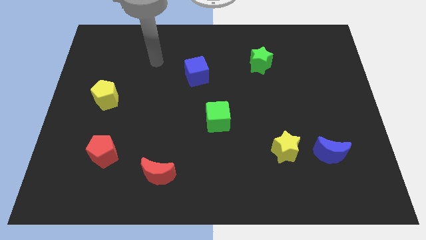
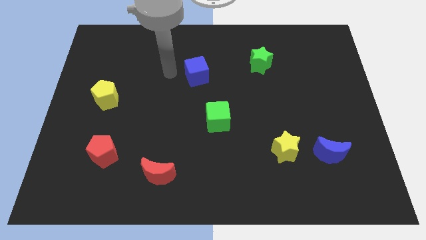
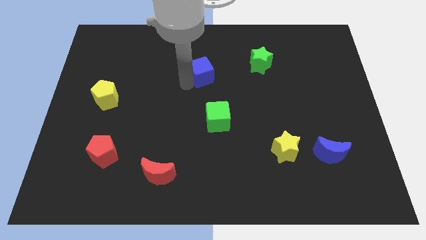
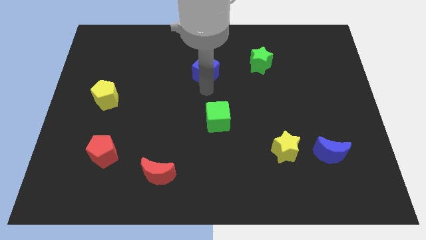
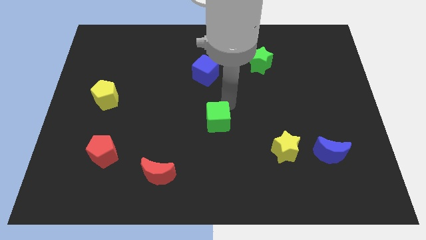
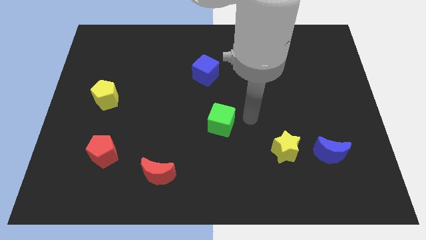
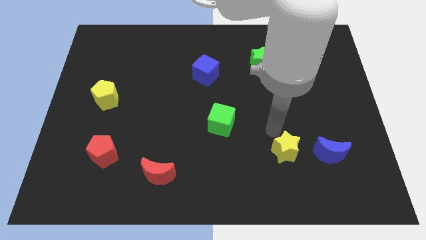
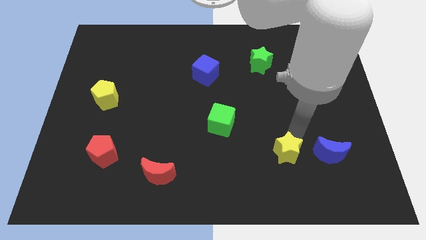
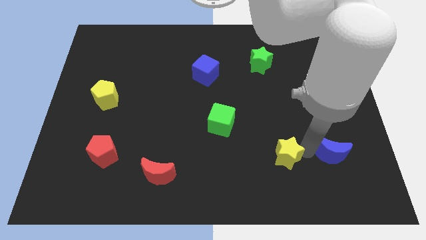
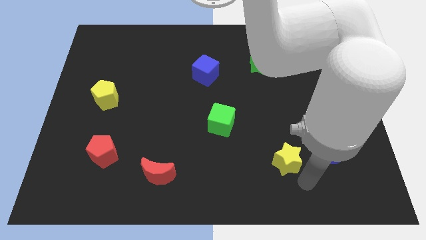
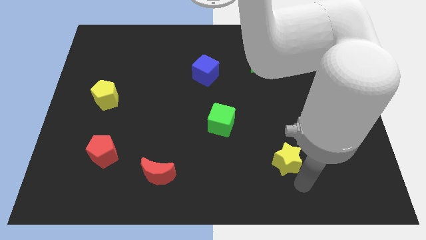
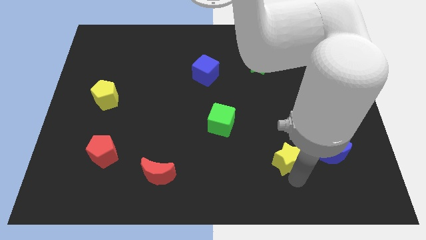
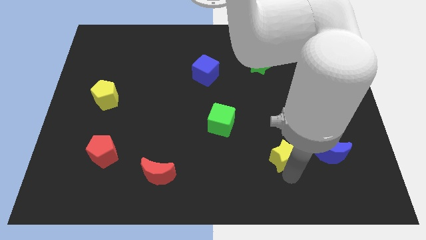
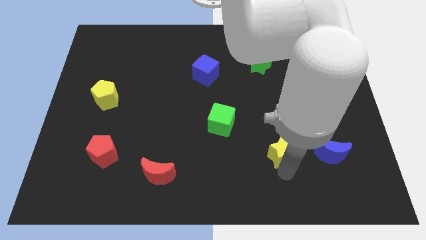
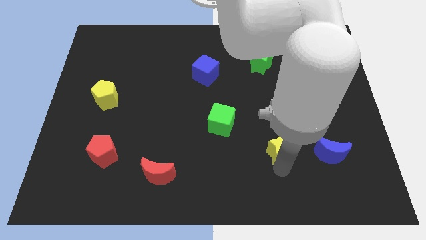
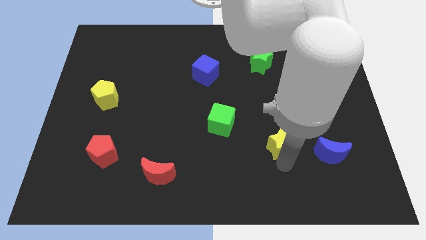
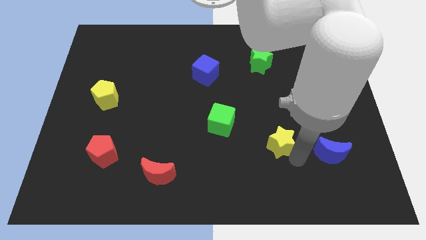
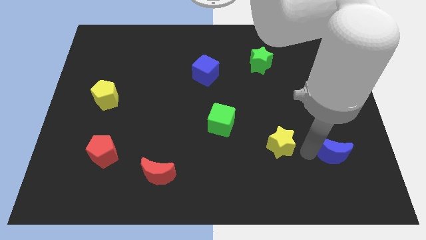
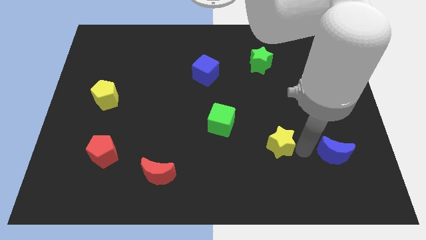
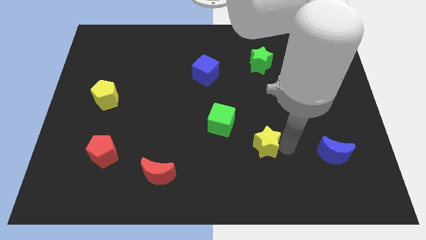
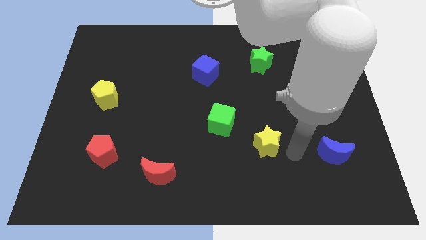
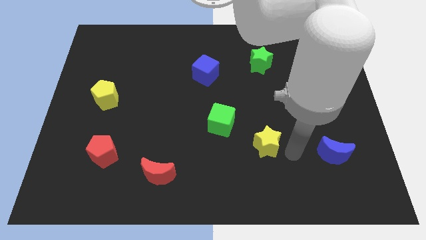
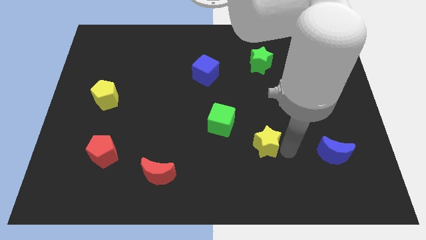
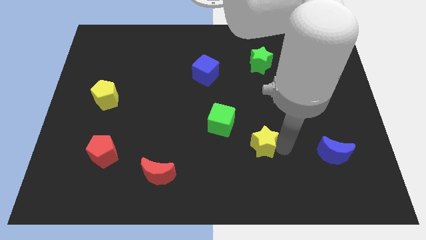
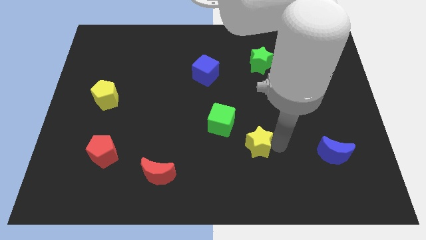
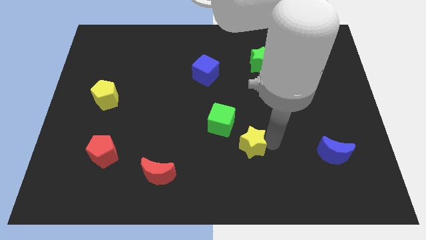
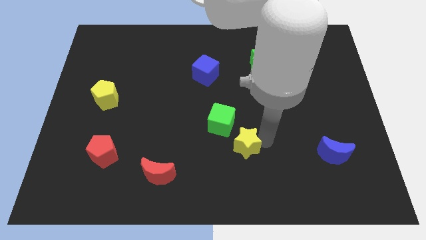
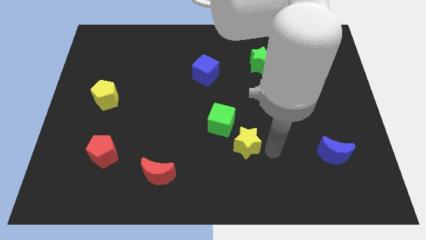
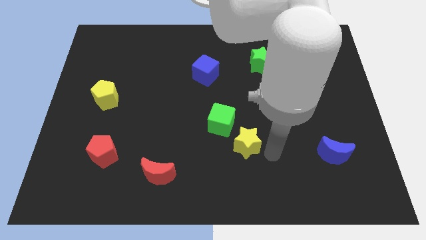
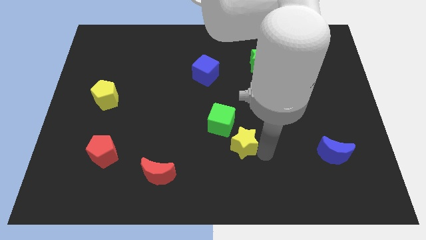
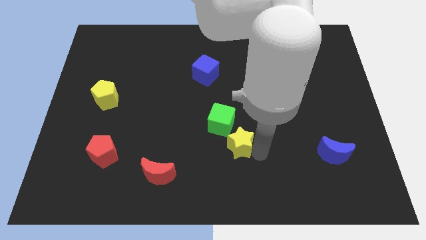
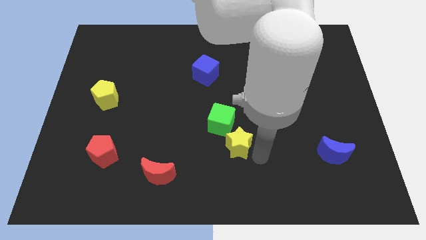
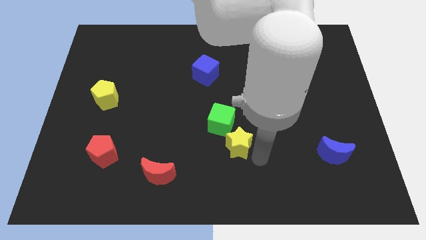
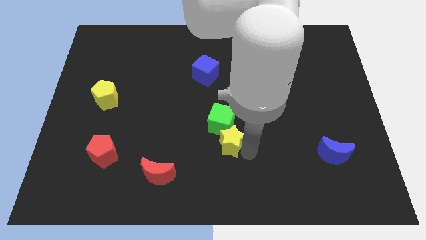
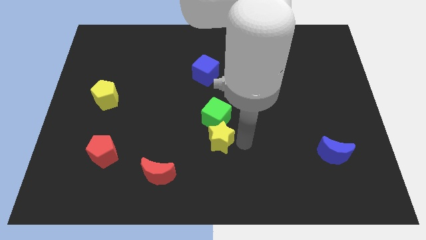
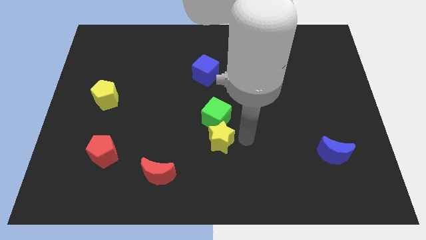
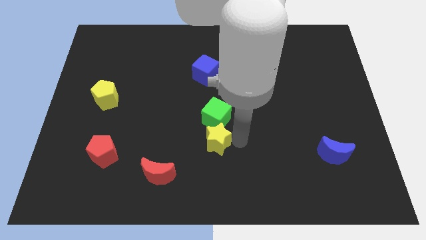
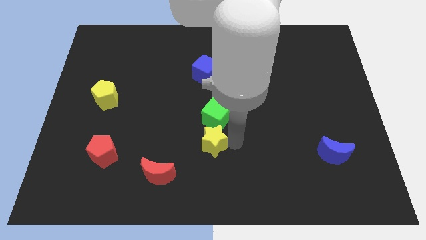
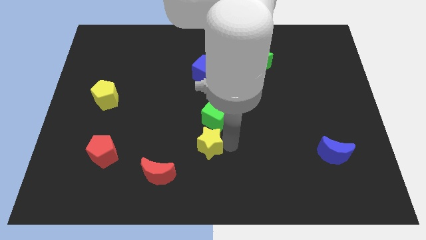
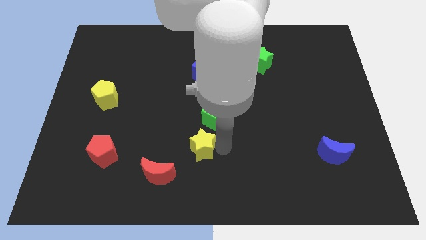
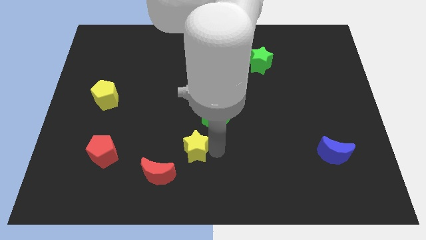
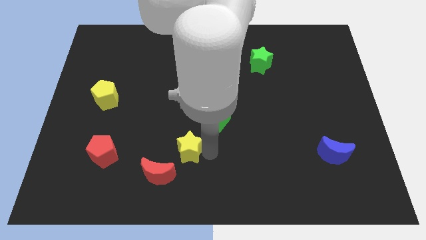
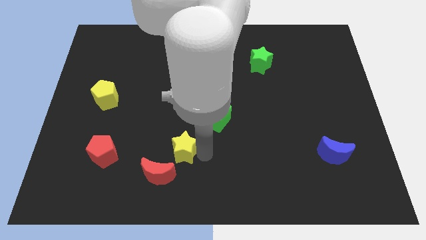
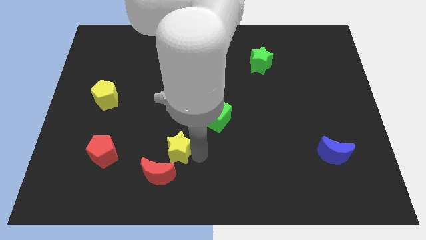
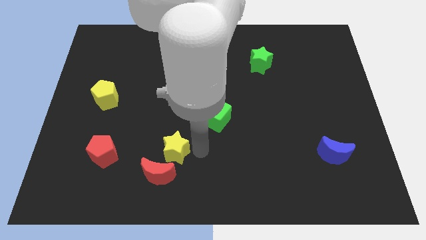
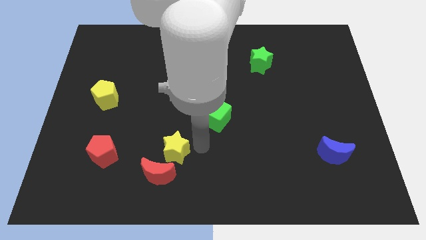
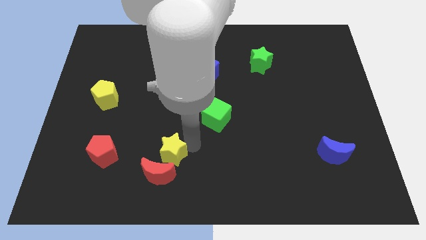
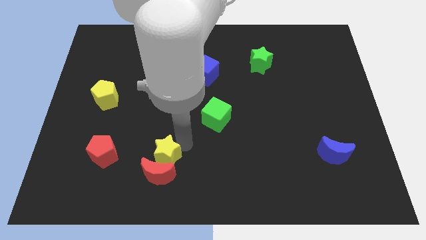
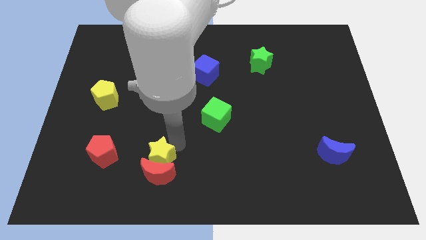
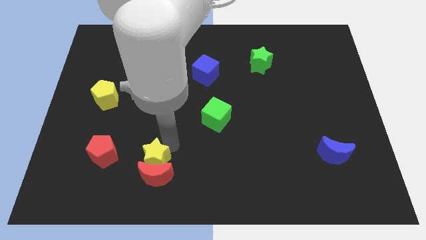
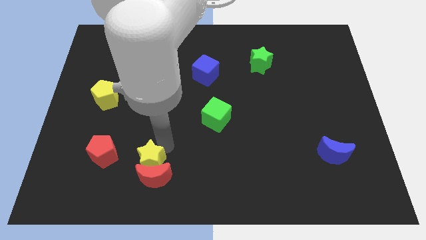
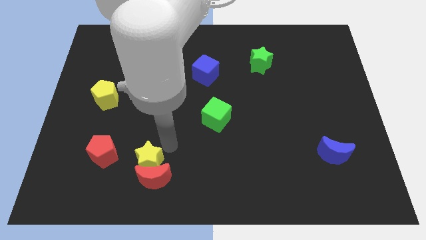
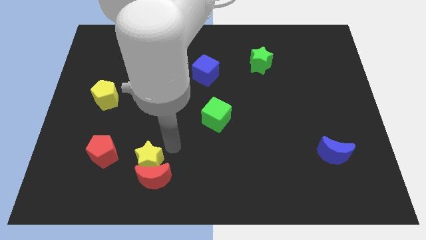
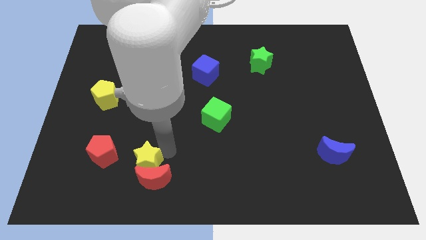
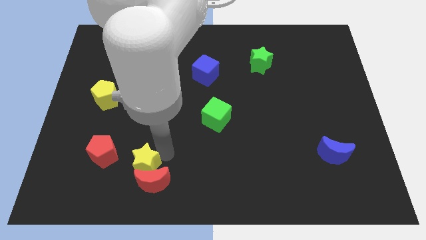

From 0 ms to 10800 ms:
move the yellow star to the bottom right side of the red pentagon

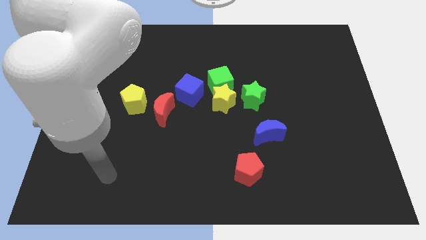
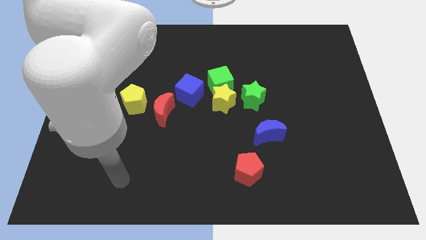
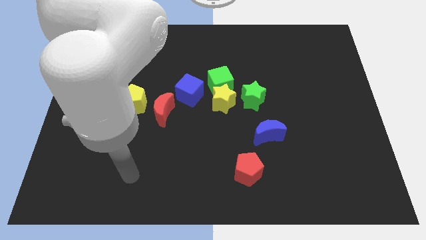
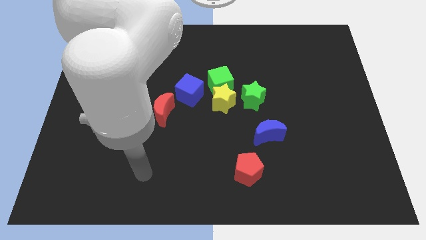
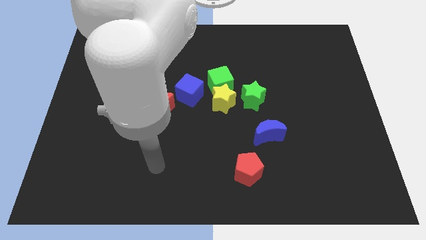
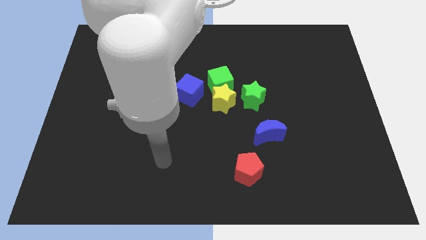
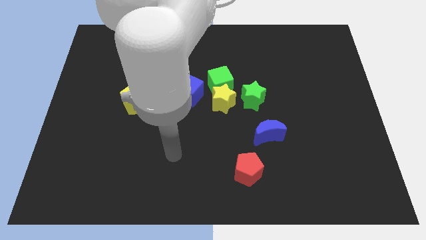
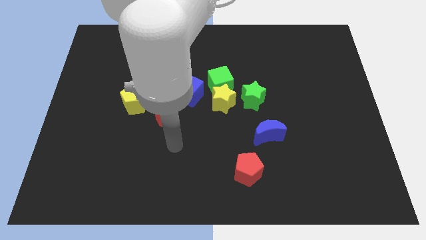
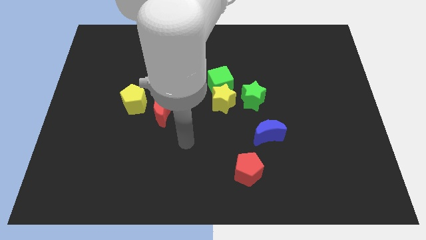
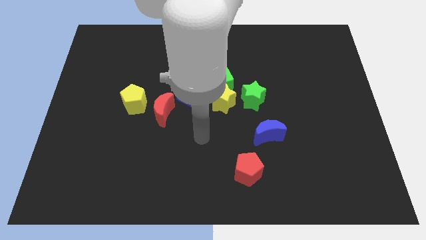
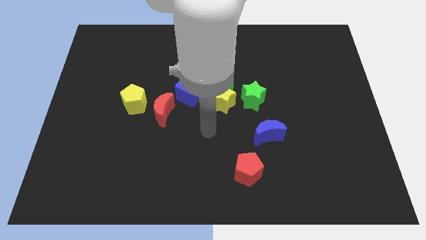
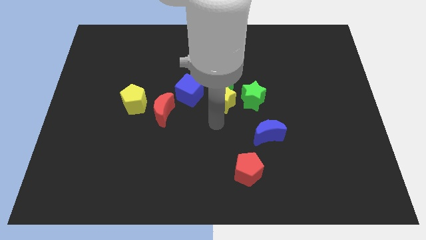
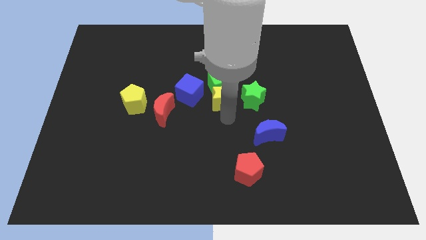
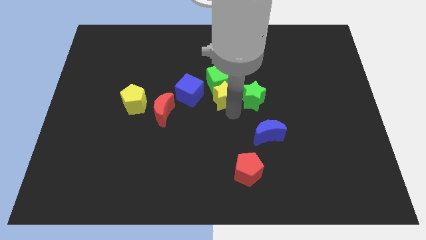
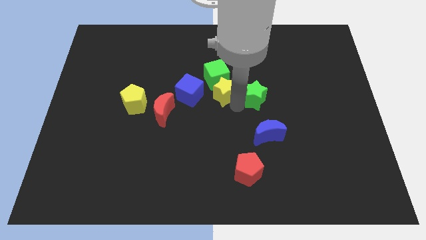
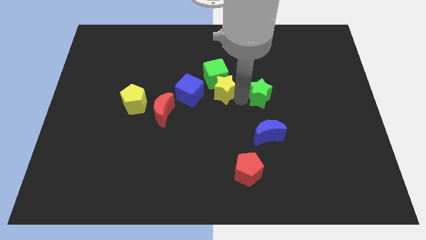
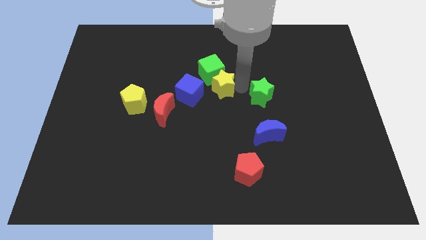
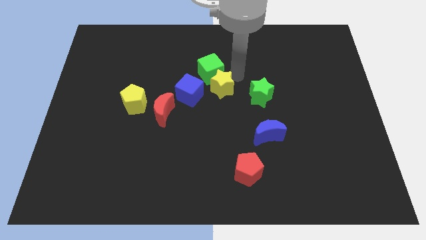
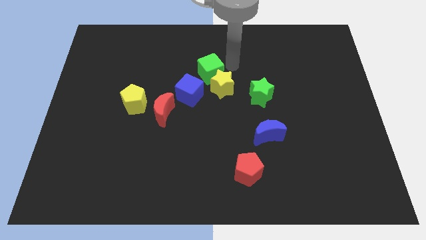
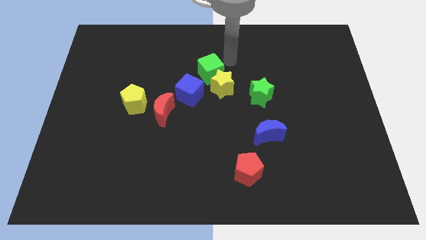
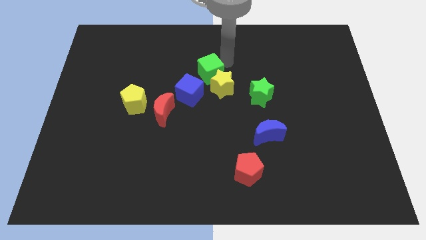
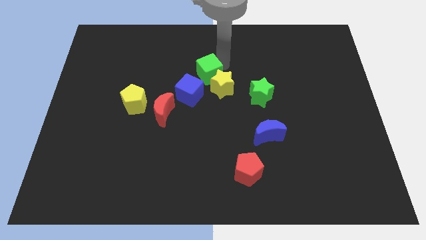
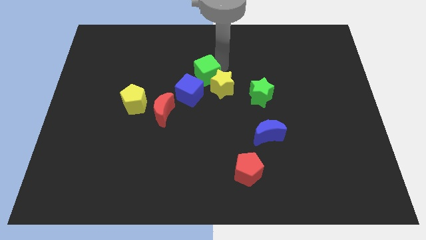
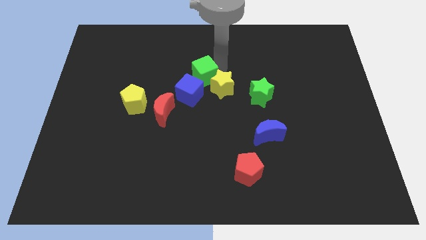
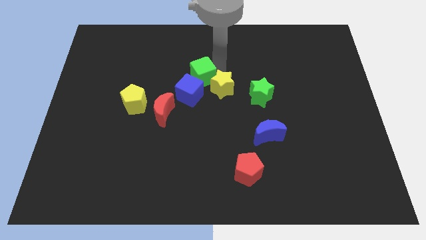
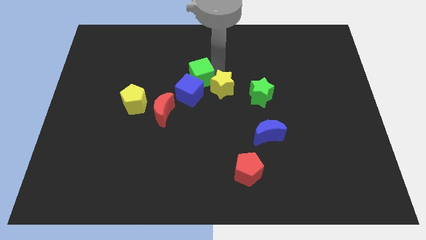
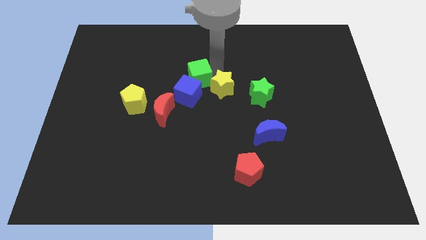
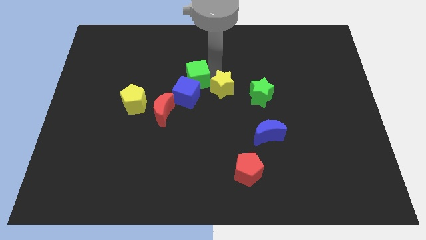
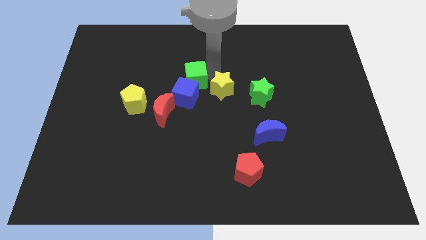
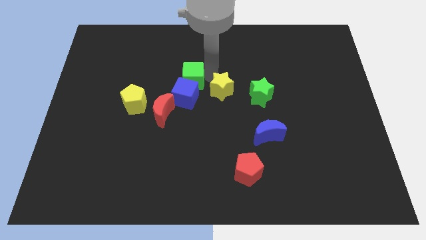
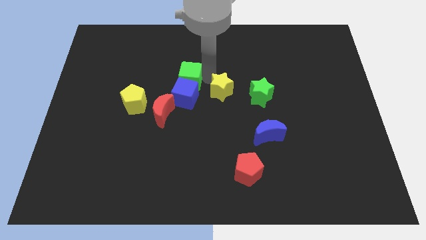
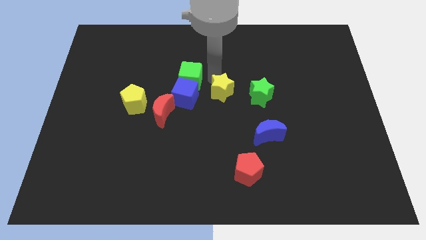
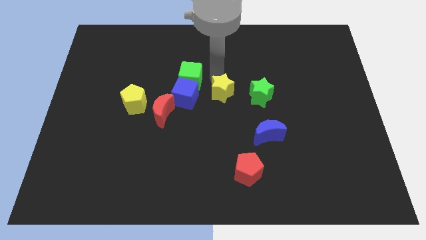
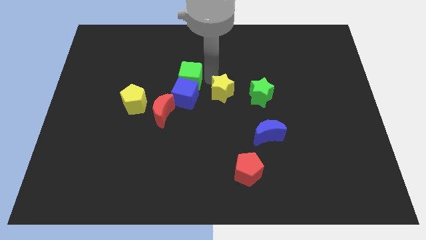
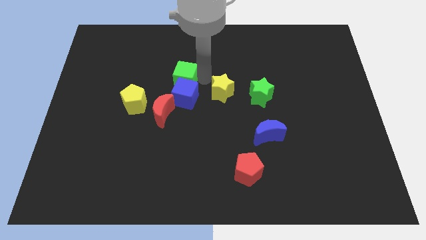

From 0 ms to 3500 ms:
push the green cube above the red moon
